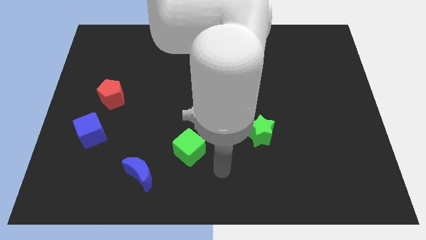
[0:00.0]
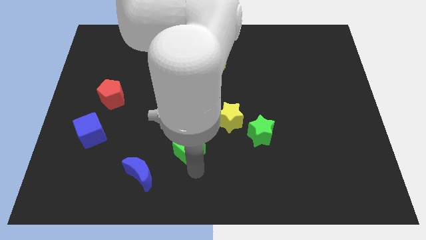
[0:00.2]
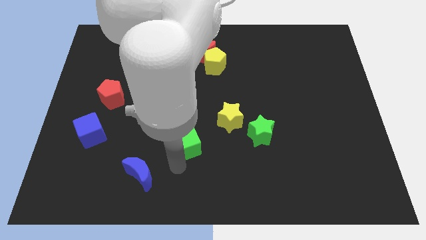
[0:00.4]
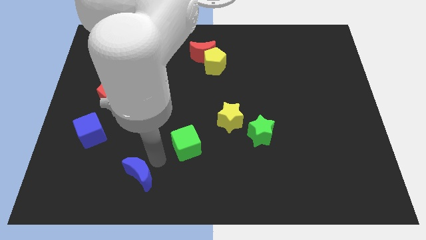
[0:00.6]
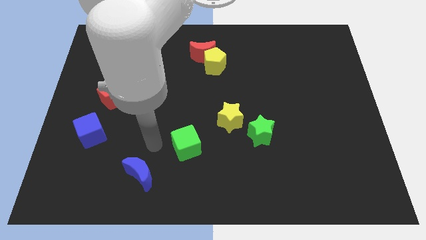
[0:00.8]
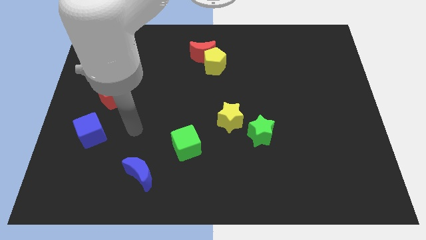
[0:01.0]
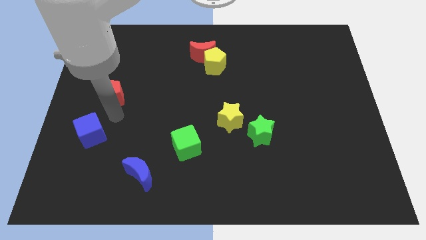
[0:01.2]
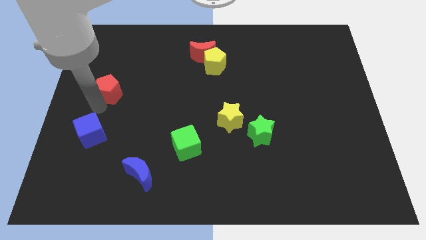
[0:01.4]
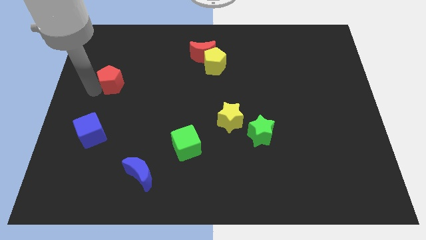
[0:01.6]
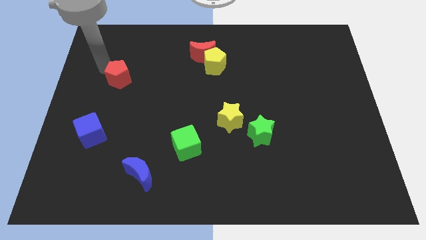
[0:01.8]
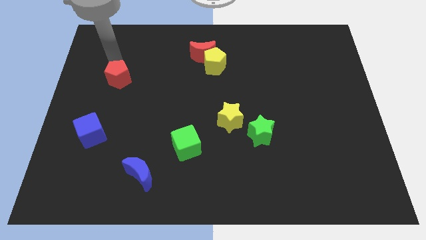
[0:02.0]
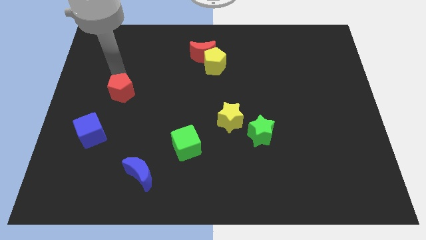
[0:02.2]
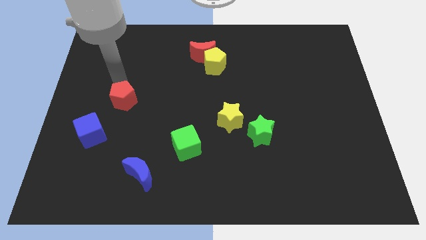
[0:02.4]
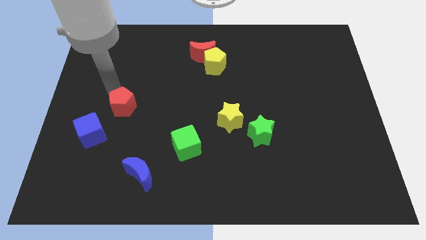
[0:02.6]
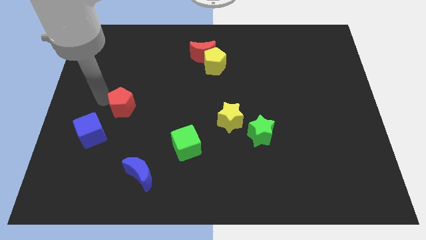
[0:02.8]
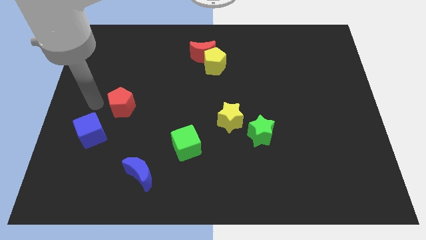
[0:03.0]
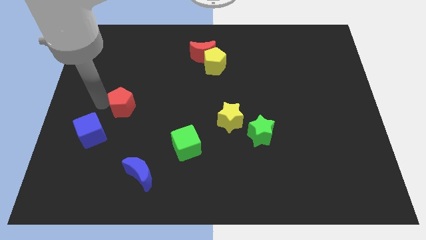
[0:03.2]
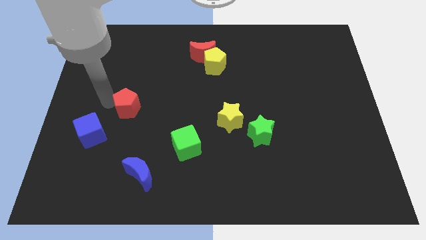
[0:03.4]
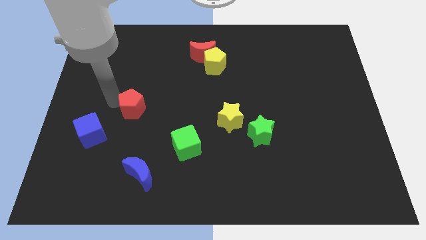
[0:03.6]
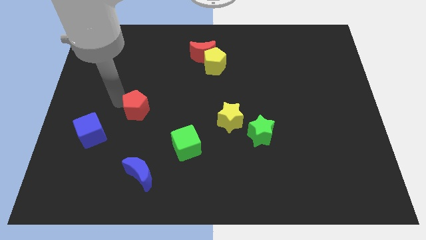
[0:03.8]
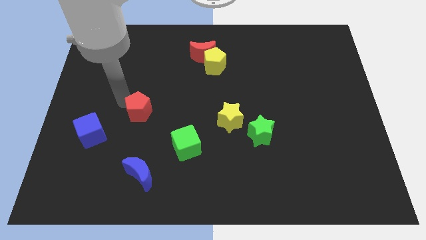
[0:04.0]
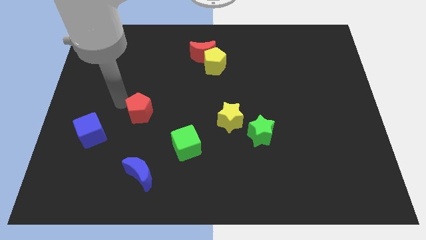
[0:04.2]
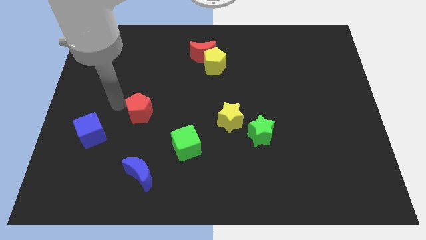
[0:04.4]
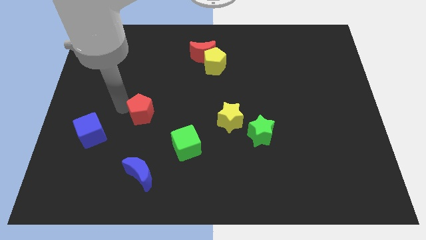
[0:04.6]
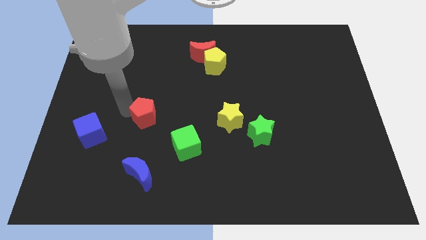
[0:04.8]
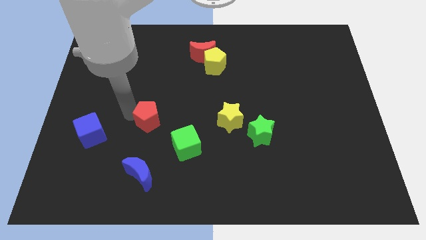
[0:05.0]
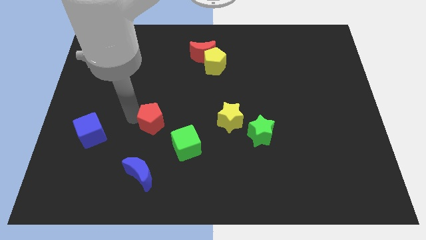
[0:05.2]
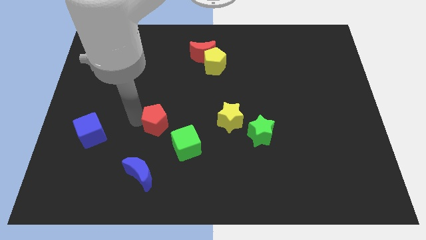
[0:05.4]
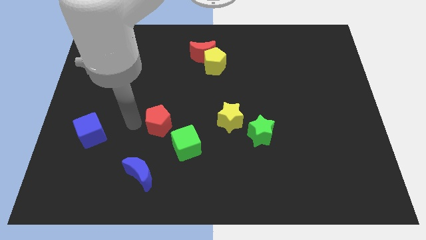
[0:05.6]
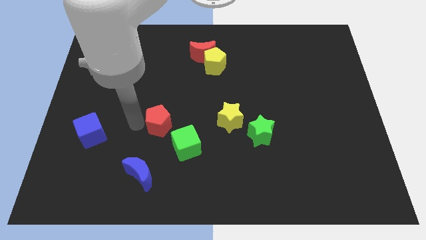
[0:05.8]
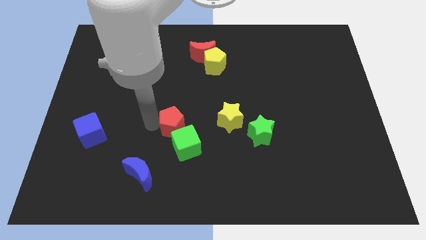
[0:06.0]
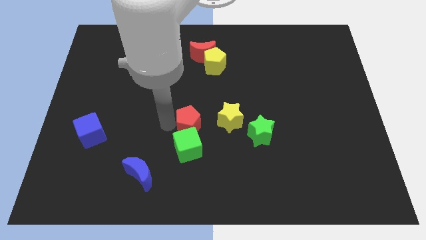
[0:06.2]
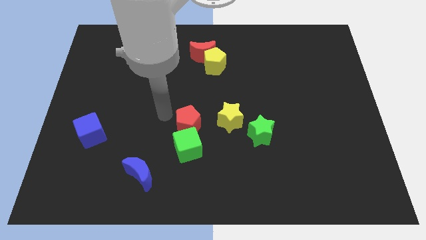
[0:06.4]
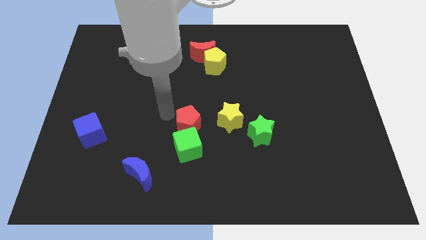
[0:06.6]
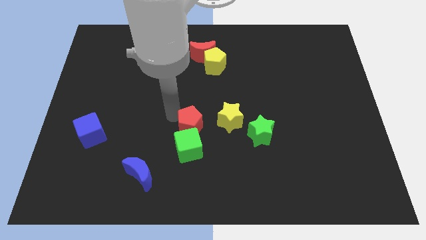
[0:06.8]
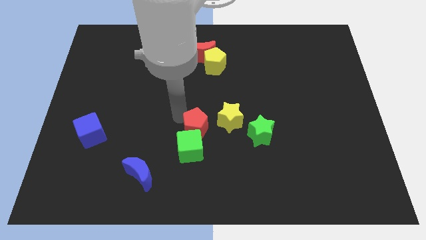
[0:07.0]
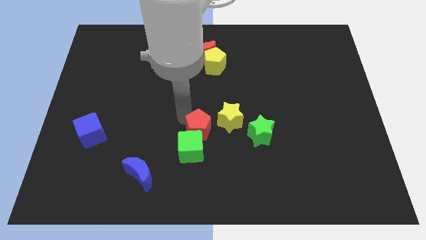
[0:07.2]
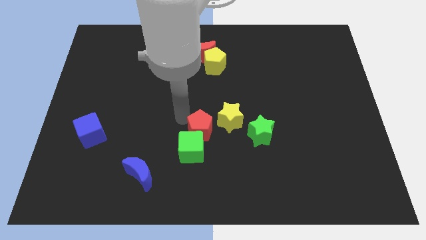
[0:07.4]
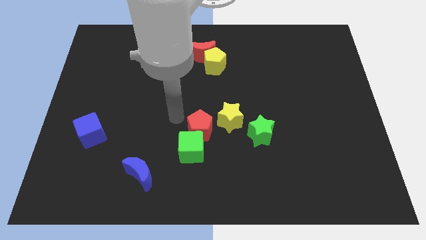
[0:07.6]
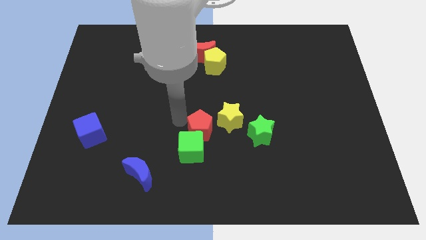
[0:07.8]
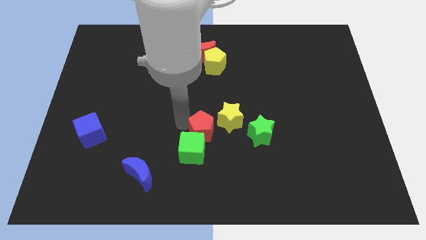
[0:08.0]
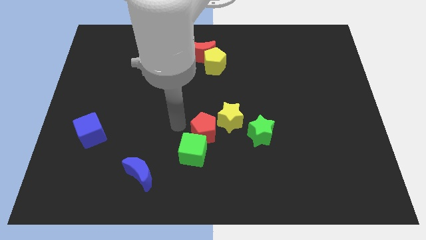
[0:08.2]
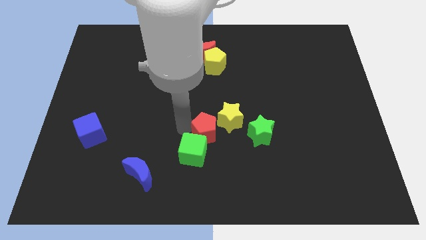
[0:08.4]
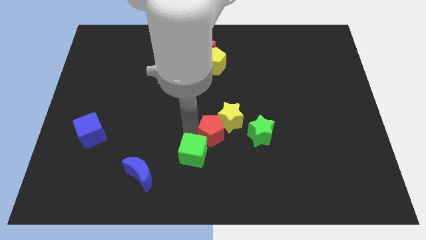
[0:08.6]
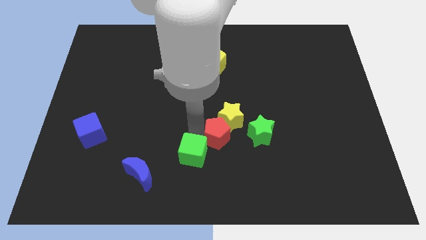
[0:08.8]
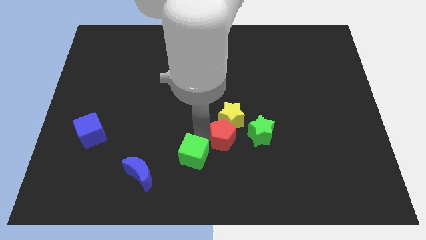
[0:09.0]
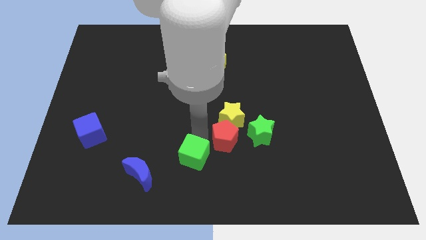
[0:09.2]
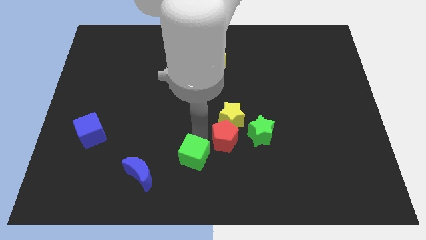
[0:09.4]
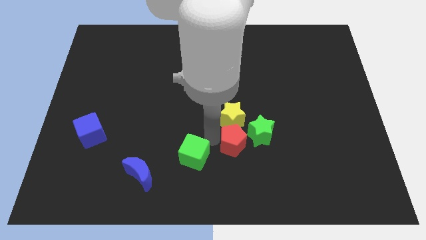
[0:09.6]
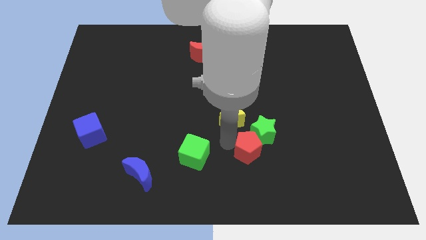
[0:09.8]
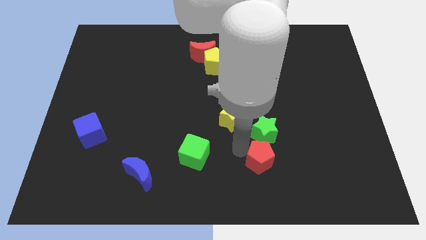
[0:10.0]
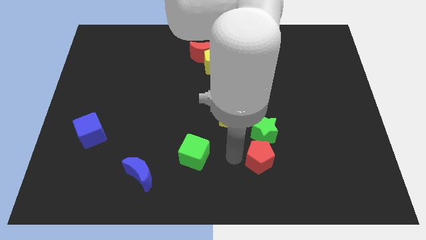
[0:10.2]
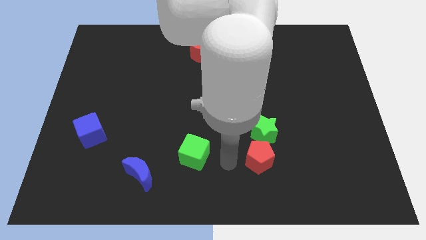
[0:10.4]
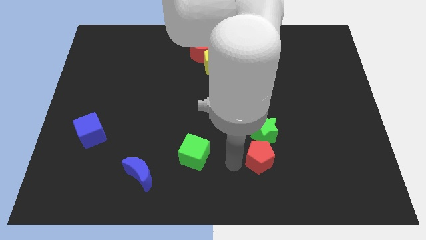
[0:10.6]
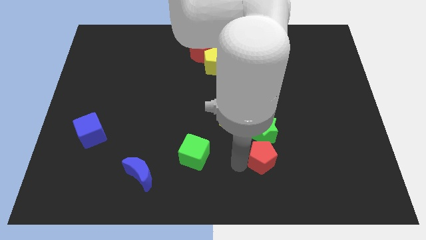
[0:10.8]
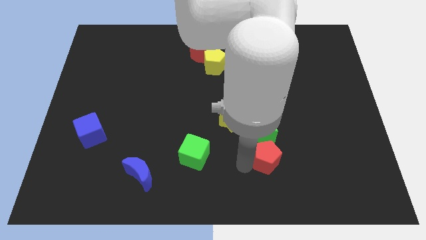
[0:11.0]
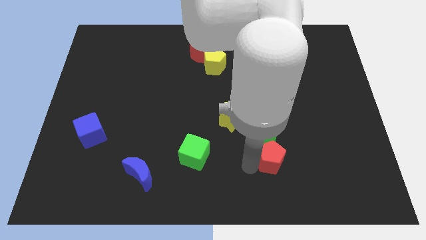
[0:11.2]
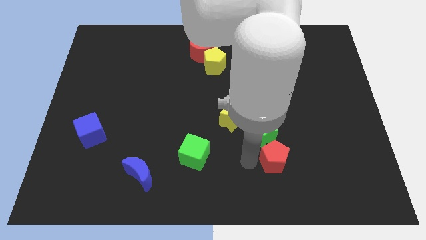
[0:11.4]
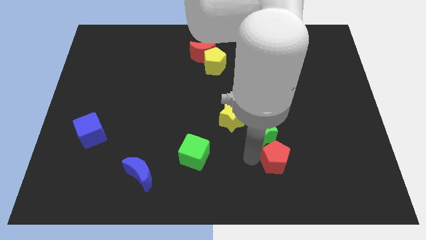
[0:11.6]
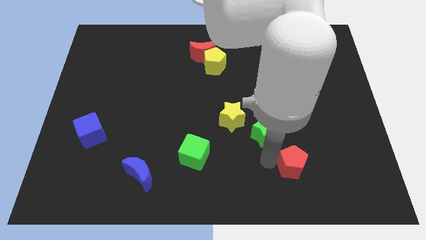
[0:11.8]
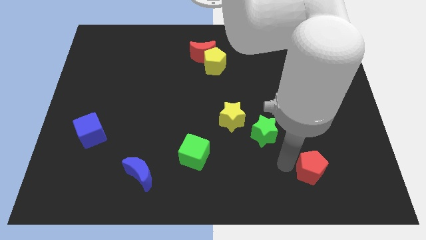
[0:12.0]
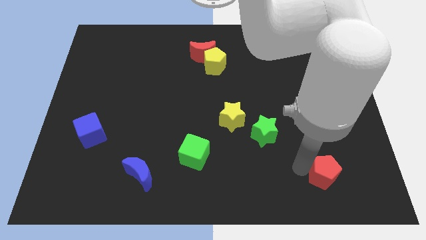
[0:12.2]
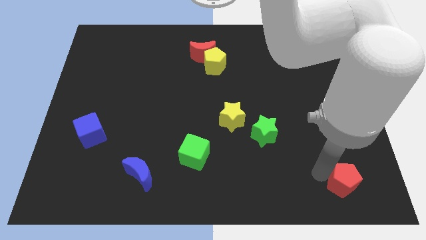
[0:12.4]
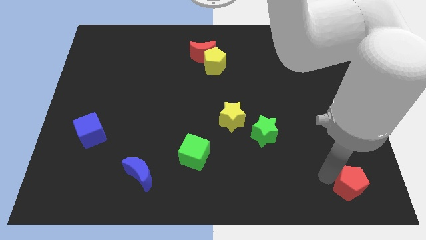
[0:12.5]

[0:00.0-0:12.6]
slide the red pentagon to the bottom right of the board

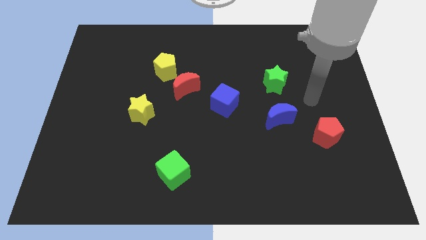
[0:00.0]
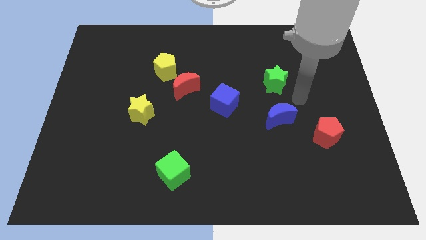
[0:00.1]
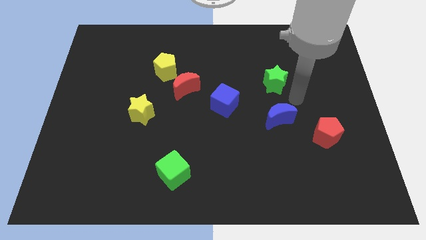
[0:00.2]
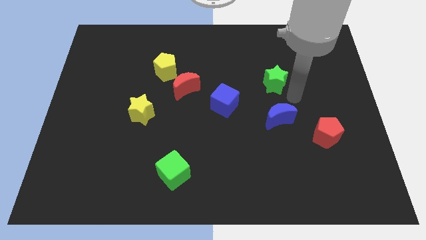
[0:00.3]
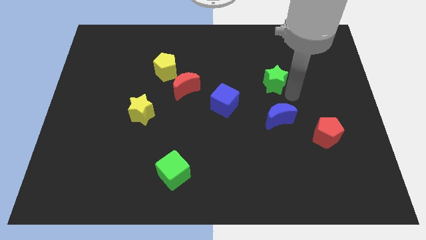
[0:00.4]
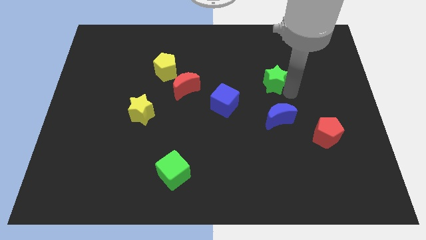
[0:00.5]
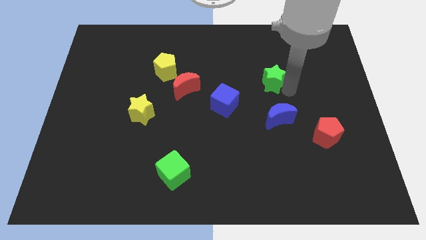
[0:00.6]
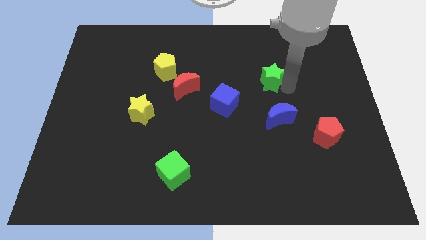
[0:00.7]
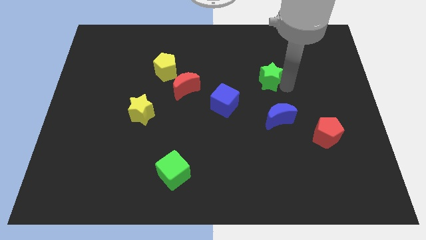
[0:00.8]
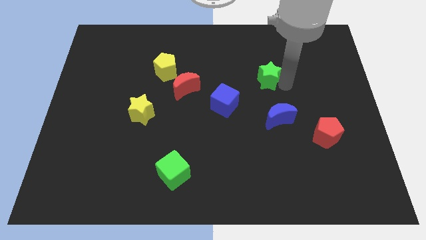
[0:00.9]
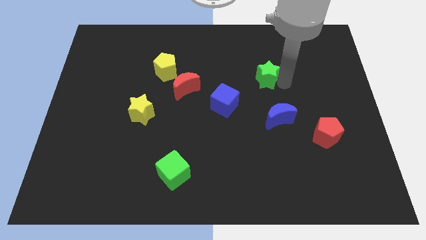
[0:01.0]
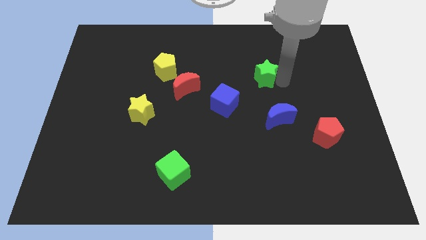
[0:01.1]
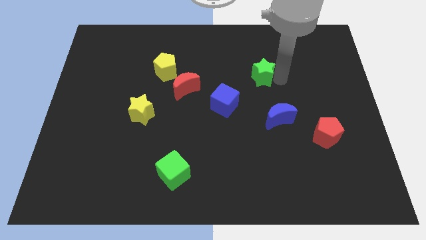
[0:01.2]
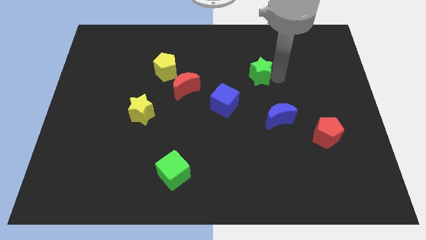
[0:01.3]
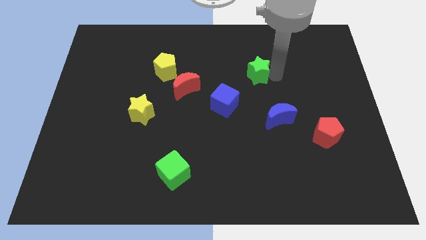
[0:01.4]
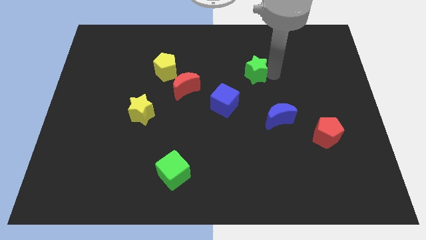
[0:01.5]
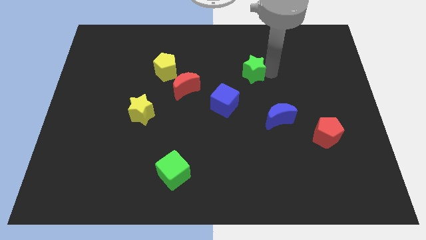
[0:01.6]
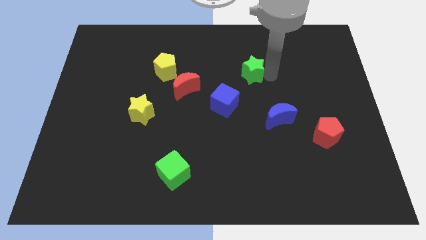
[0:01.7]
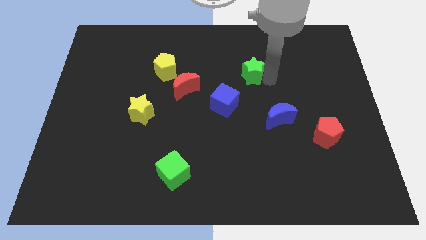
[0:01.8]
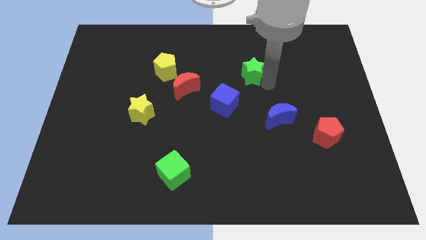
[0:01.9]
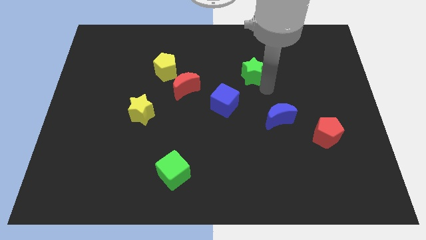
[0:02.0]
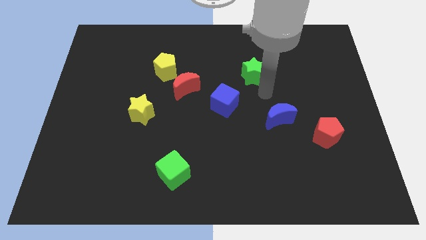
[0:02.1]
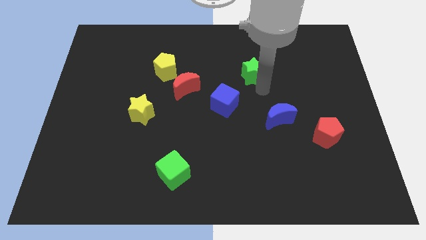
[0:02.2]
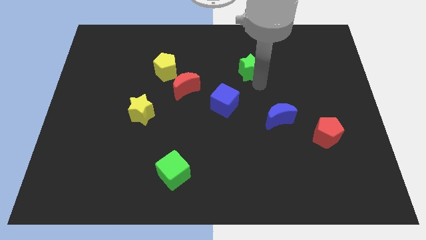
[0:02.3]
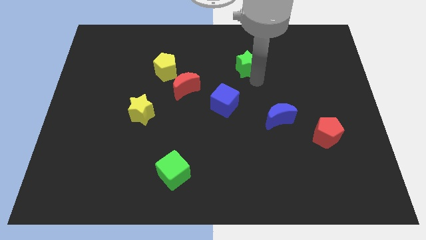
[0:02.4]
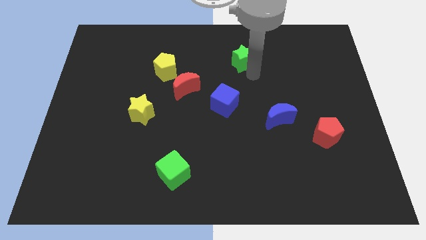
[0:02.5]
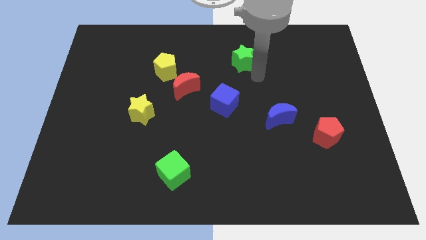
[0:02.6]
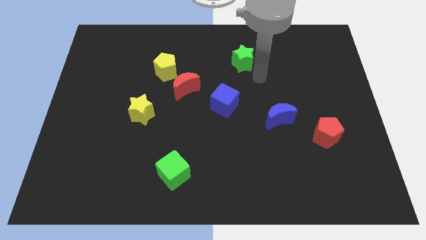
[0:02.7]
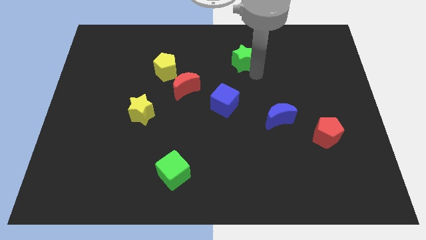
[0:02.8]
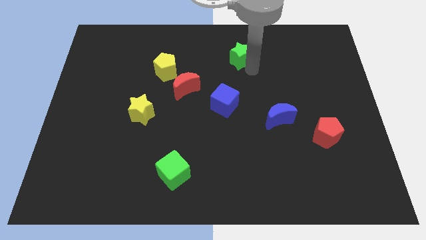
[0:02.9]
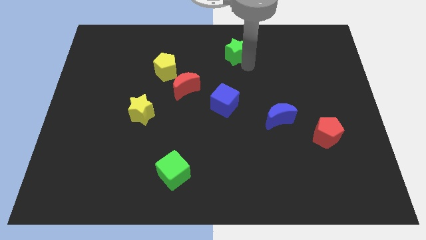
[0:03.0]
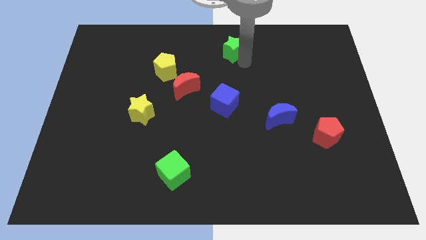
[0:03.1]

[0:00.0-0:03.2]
slide the green star to the top side
